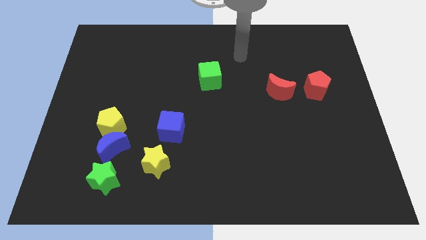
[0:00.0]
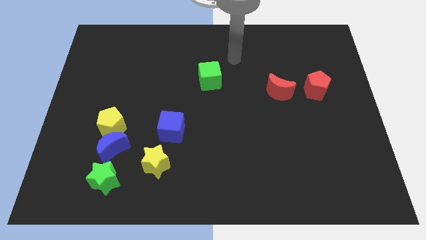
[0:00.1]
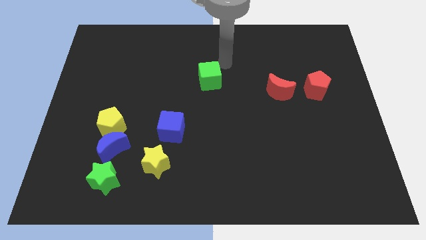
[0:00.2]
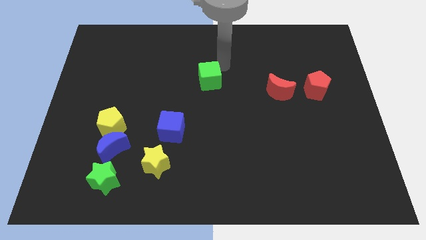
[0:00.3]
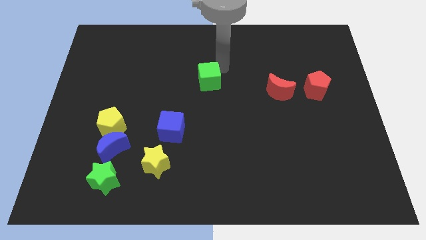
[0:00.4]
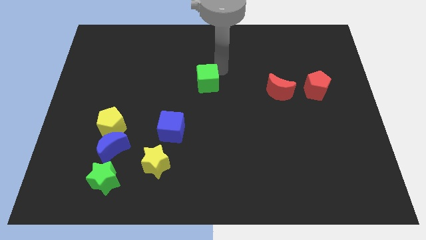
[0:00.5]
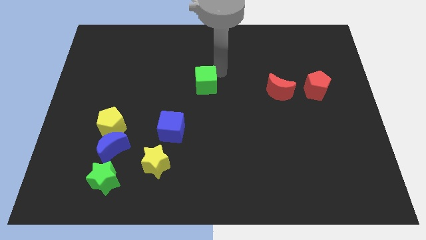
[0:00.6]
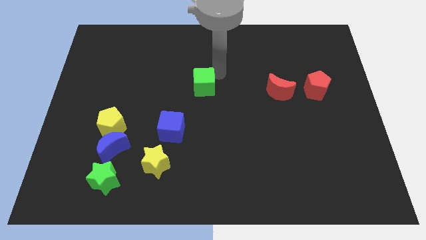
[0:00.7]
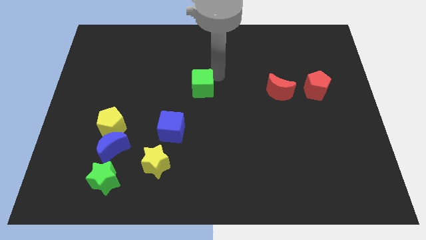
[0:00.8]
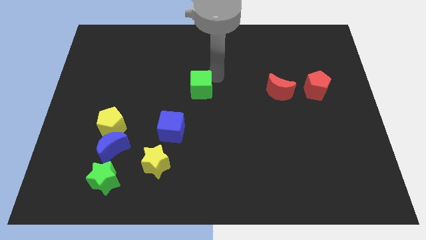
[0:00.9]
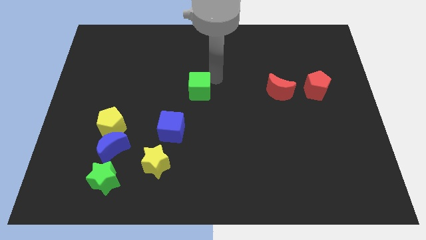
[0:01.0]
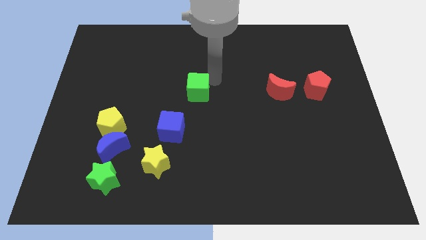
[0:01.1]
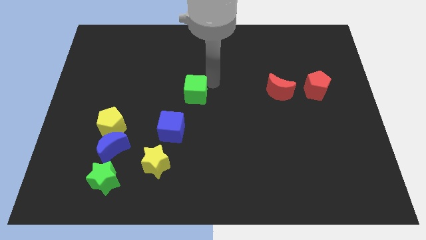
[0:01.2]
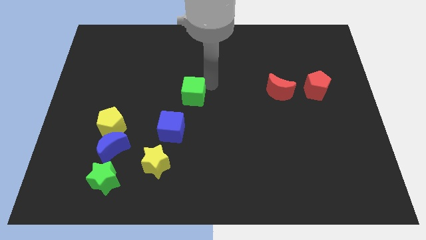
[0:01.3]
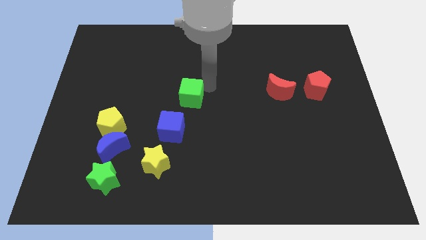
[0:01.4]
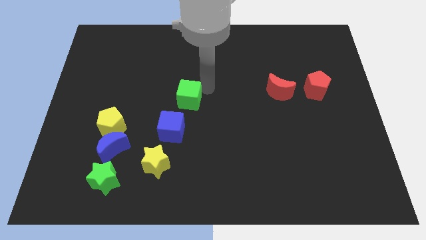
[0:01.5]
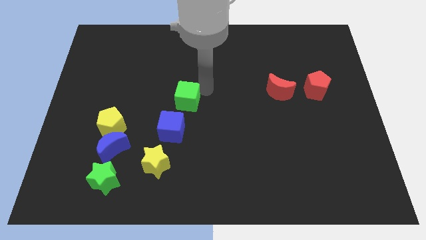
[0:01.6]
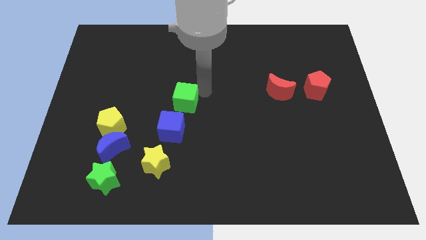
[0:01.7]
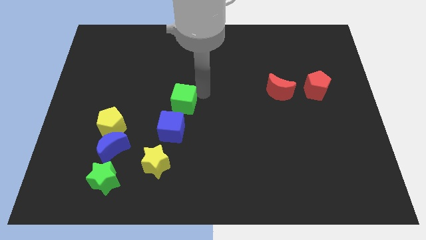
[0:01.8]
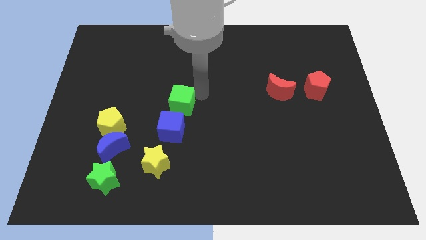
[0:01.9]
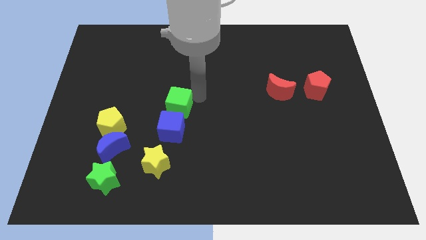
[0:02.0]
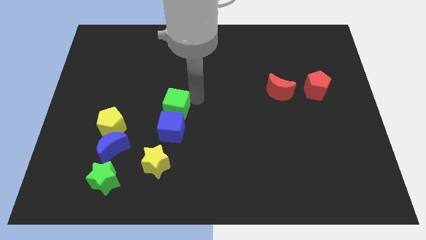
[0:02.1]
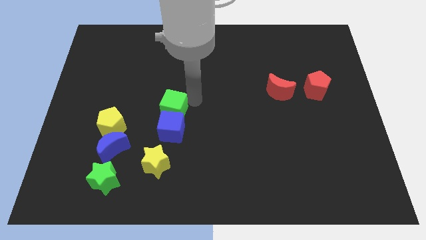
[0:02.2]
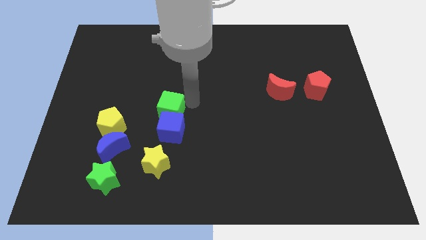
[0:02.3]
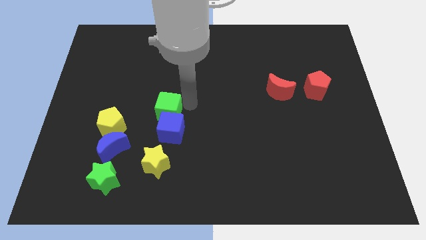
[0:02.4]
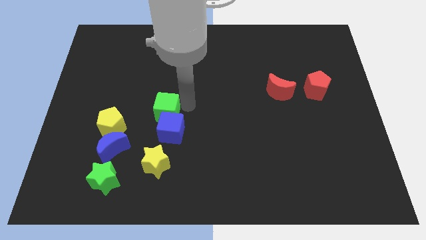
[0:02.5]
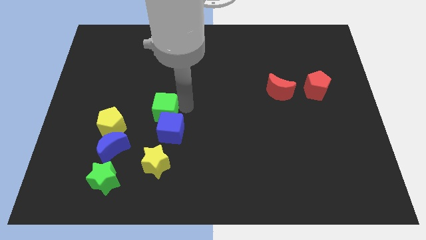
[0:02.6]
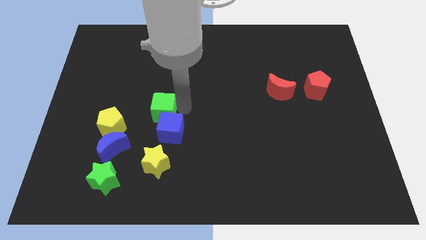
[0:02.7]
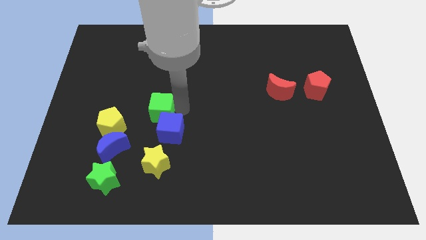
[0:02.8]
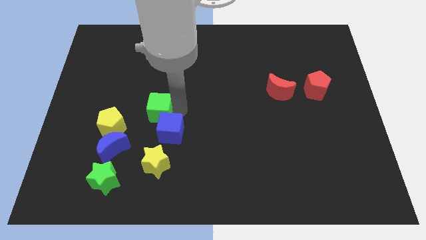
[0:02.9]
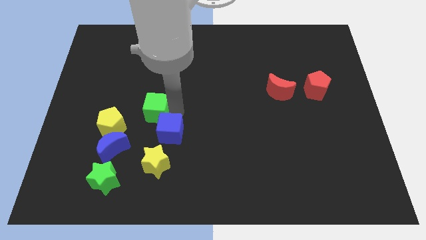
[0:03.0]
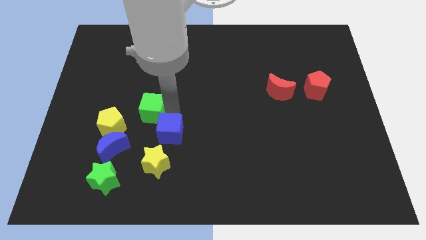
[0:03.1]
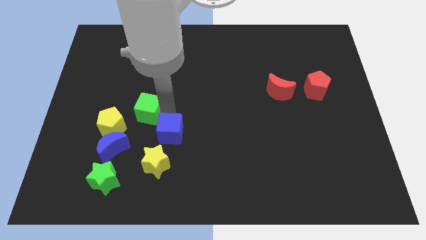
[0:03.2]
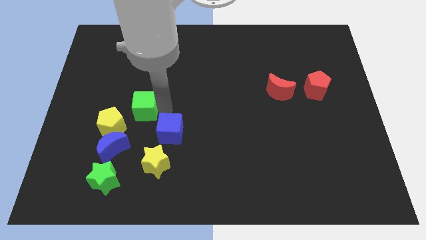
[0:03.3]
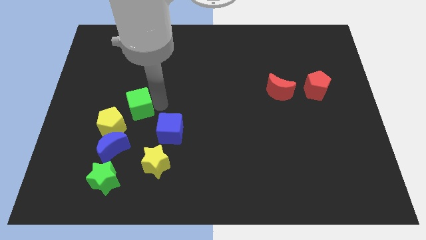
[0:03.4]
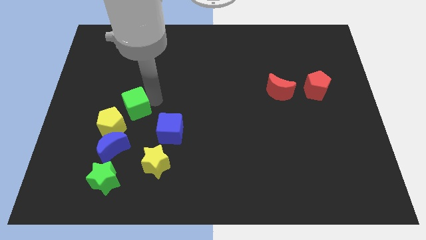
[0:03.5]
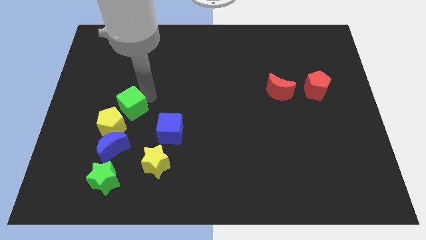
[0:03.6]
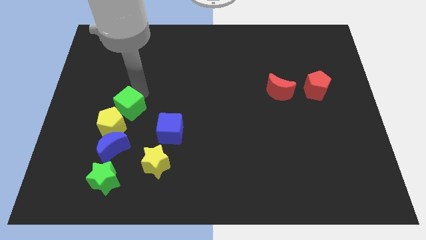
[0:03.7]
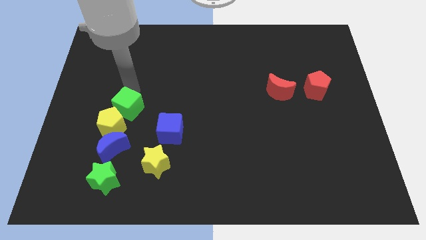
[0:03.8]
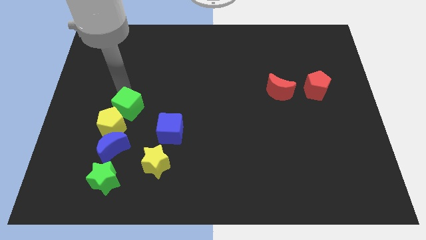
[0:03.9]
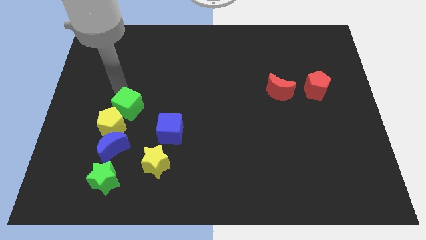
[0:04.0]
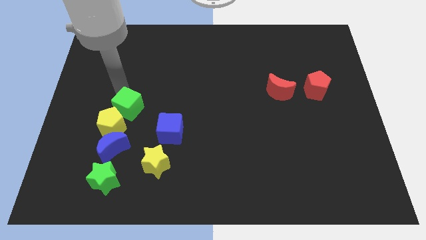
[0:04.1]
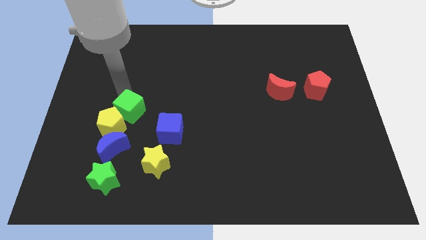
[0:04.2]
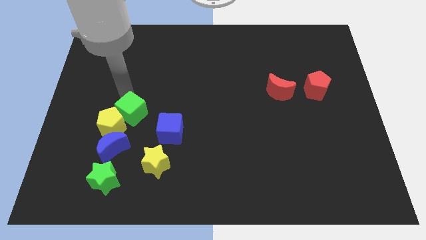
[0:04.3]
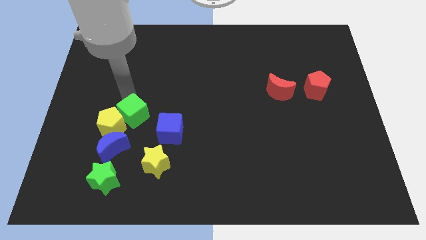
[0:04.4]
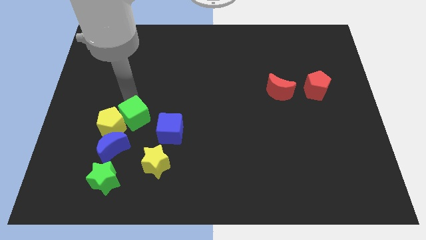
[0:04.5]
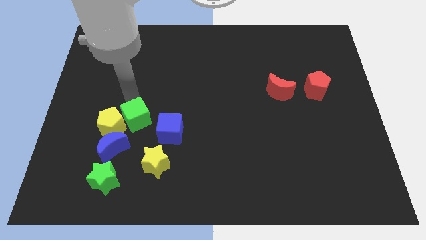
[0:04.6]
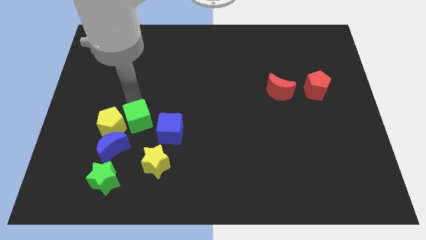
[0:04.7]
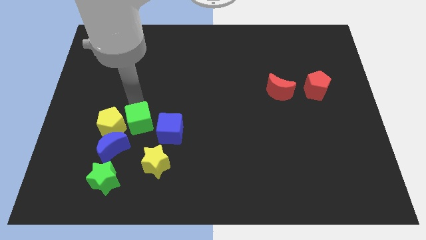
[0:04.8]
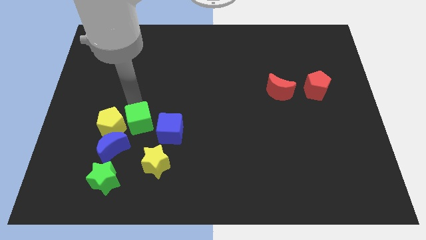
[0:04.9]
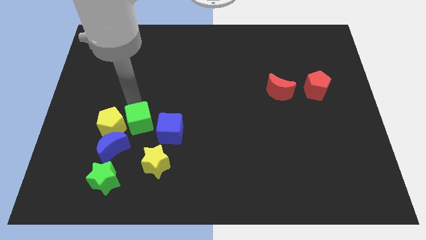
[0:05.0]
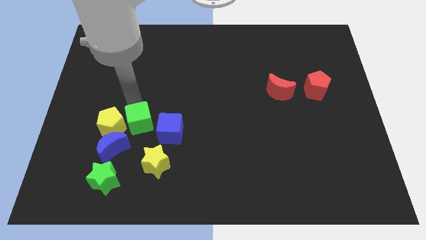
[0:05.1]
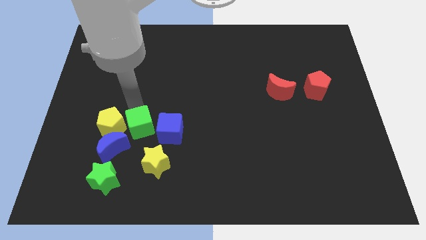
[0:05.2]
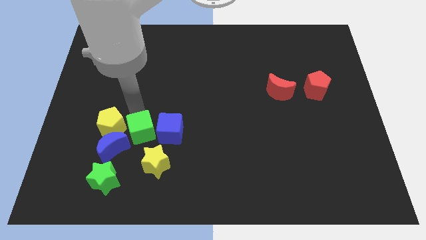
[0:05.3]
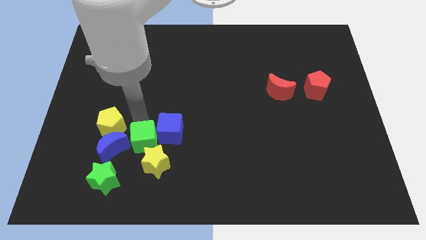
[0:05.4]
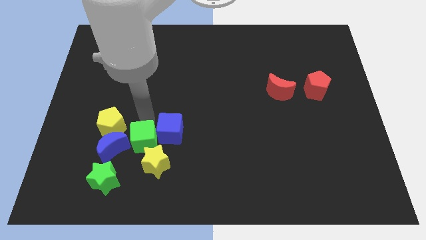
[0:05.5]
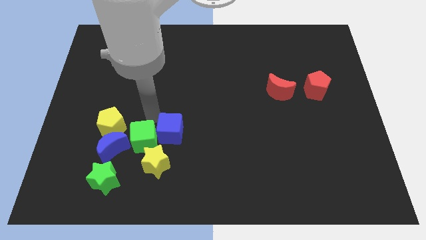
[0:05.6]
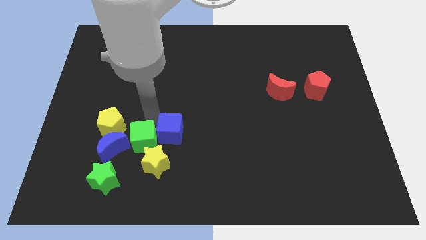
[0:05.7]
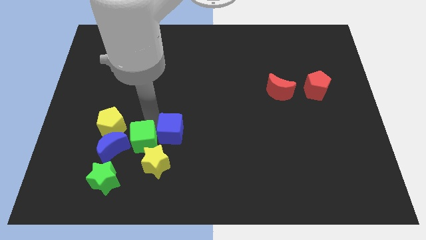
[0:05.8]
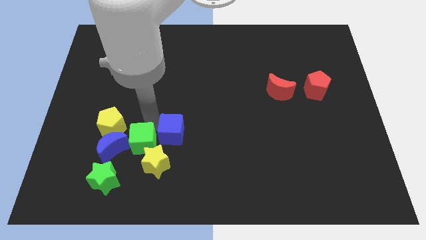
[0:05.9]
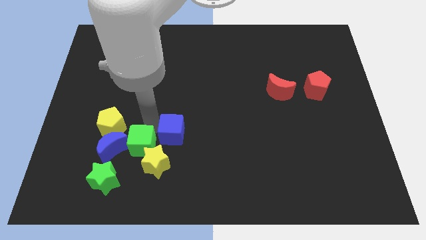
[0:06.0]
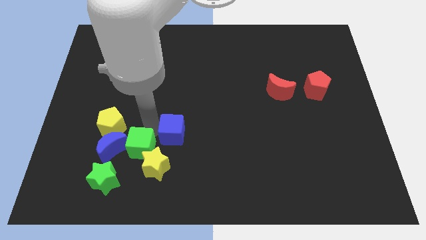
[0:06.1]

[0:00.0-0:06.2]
move the green cube to the bottom right side of the blue moon
